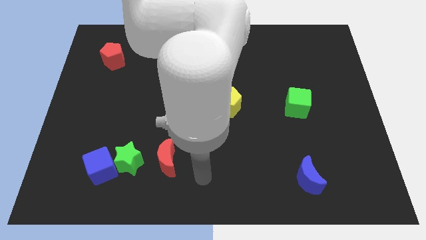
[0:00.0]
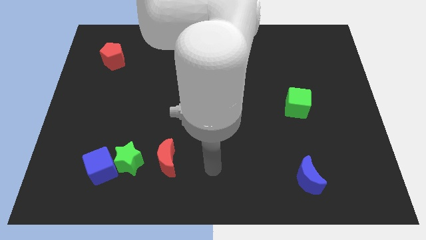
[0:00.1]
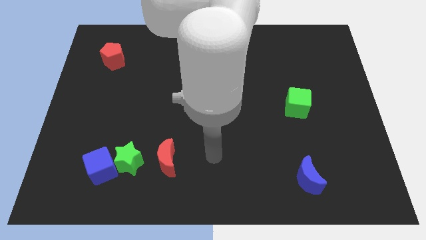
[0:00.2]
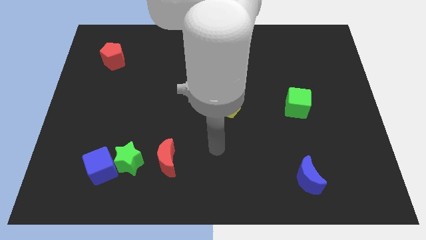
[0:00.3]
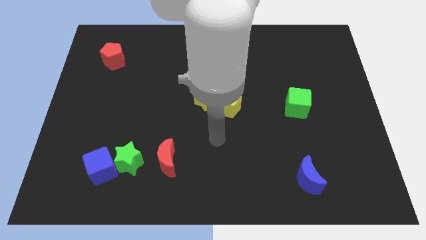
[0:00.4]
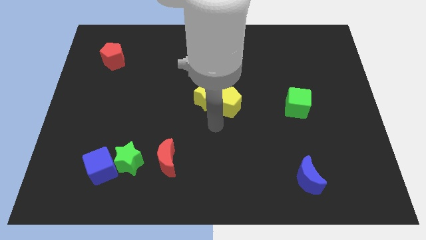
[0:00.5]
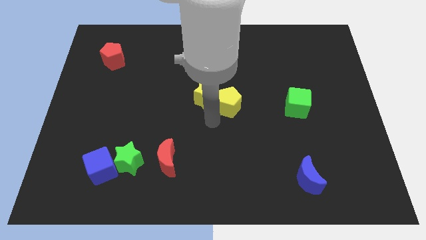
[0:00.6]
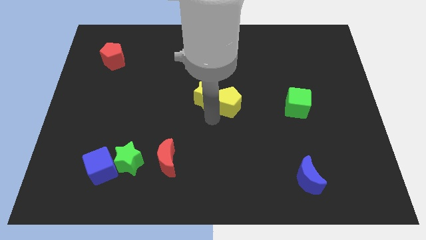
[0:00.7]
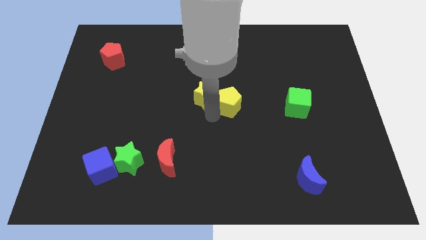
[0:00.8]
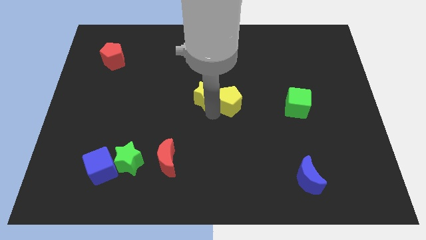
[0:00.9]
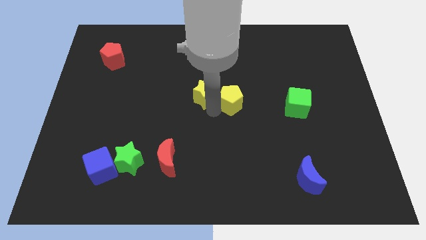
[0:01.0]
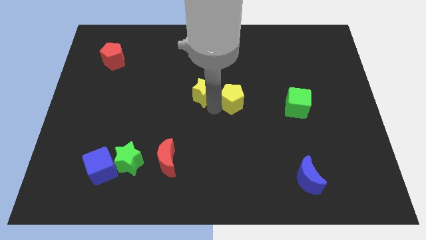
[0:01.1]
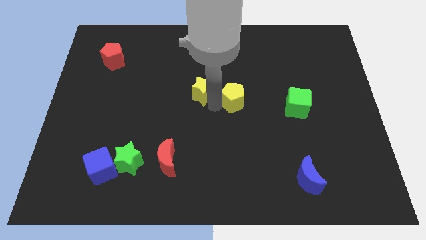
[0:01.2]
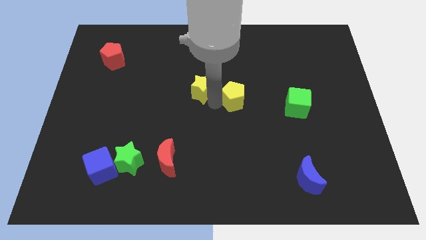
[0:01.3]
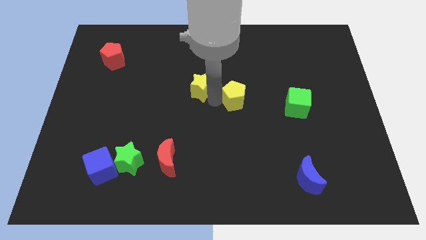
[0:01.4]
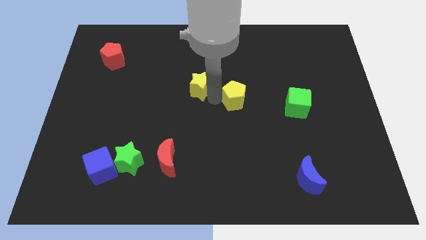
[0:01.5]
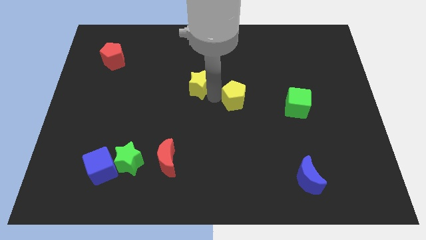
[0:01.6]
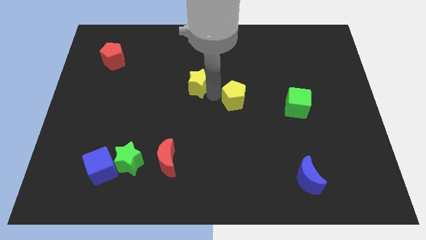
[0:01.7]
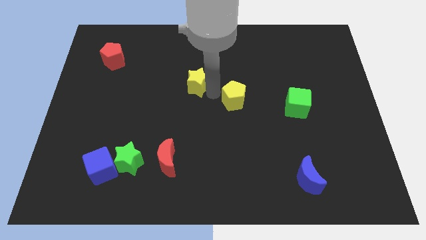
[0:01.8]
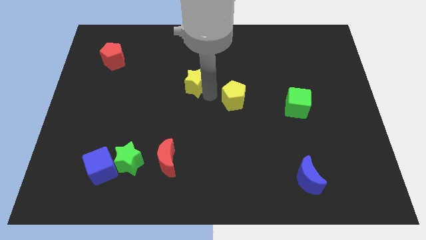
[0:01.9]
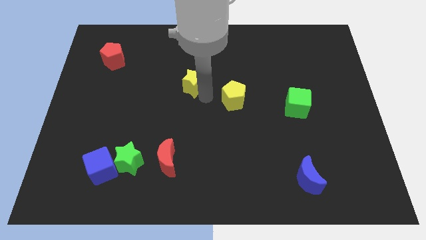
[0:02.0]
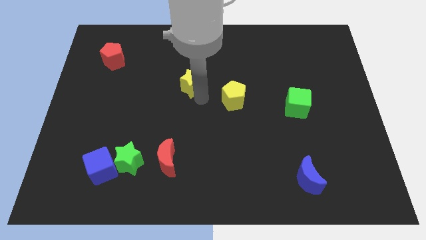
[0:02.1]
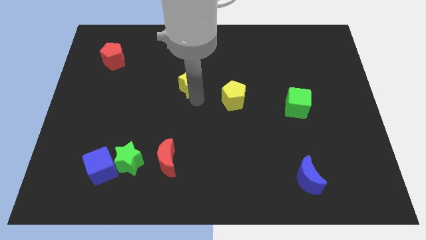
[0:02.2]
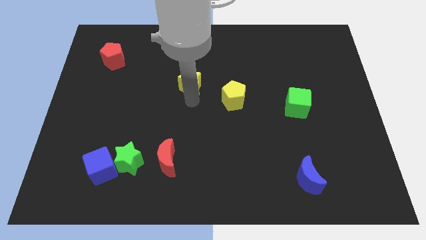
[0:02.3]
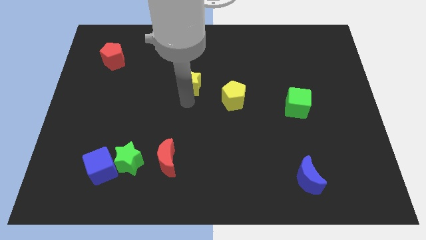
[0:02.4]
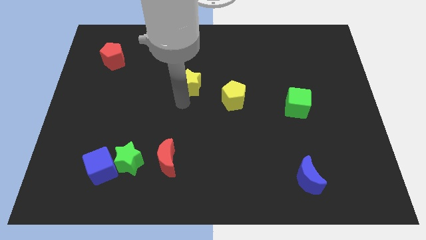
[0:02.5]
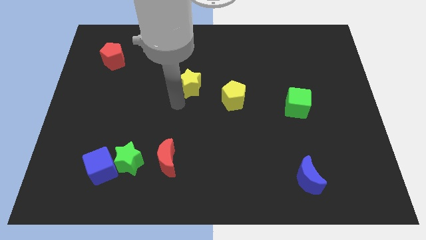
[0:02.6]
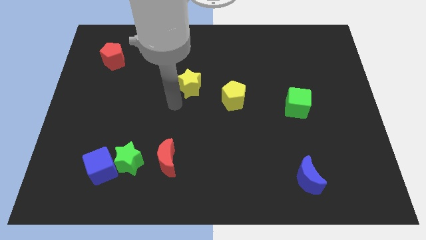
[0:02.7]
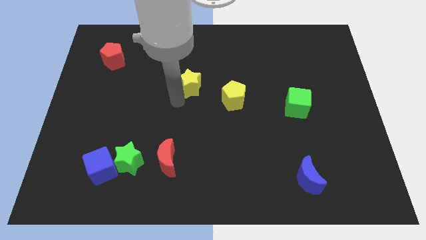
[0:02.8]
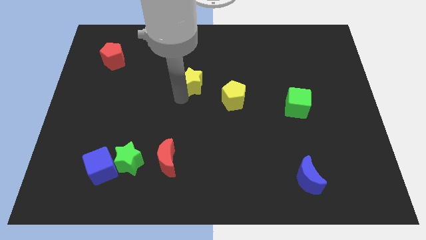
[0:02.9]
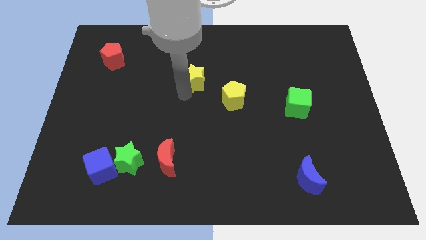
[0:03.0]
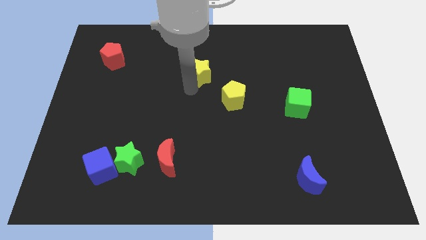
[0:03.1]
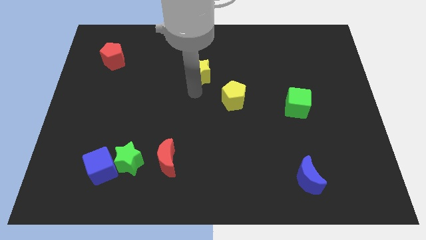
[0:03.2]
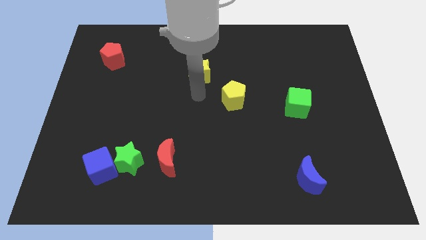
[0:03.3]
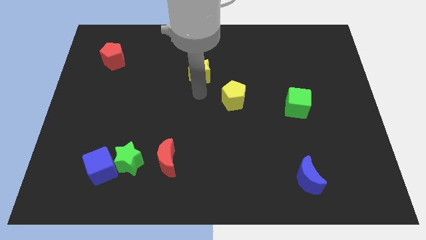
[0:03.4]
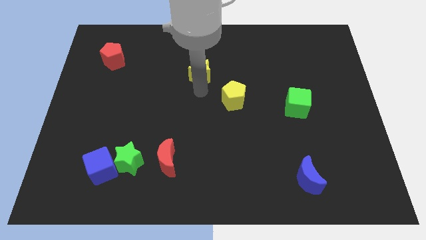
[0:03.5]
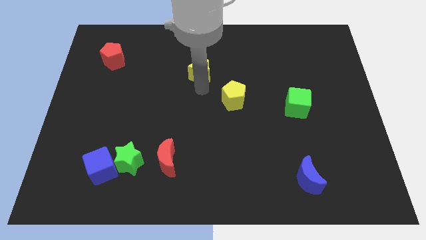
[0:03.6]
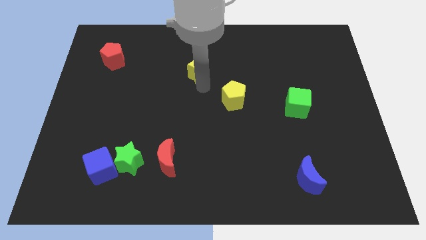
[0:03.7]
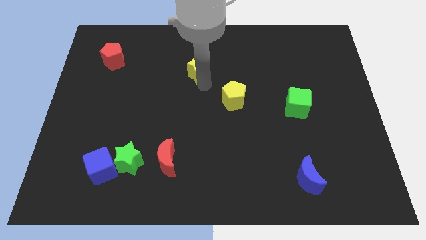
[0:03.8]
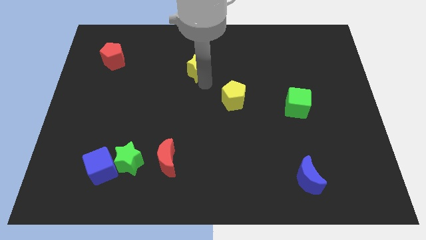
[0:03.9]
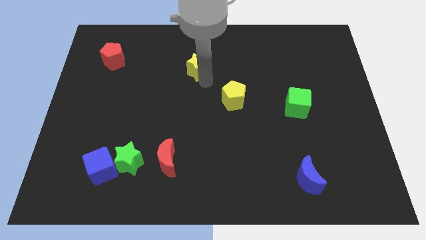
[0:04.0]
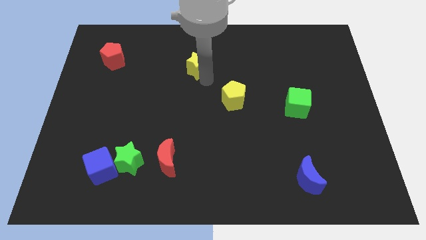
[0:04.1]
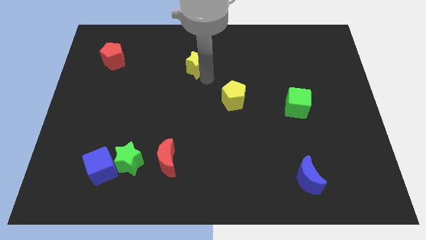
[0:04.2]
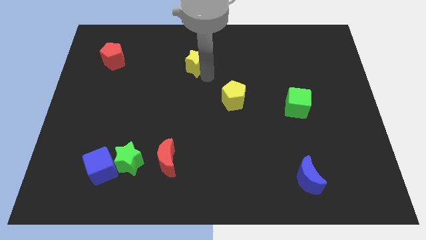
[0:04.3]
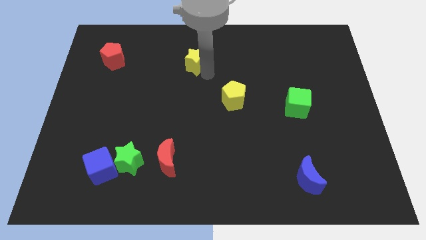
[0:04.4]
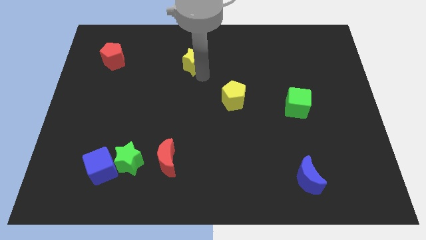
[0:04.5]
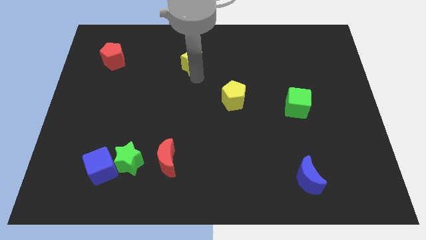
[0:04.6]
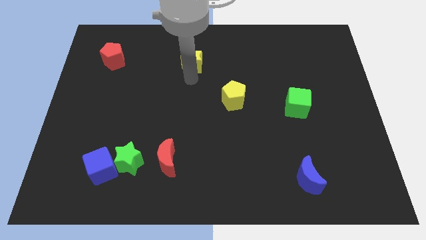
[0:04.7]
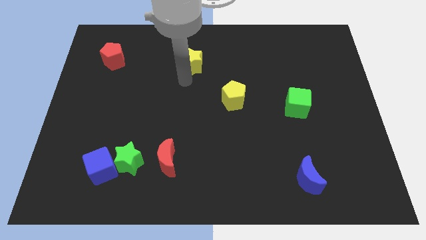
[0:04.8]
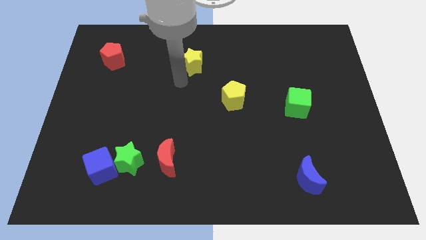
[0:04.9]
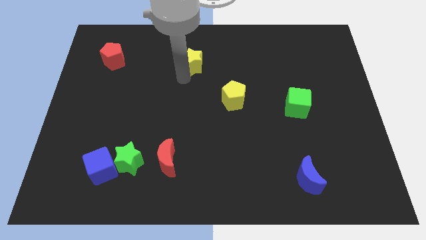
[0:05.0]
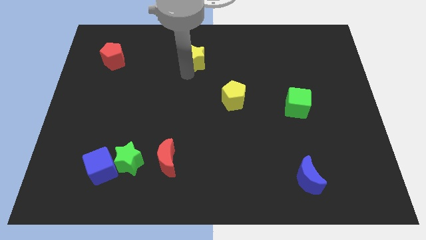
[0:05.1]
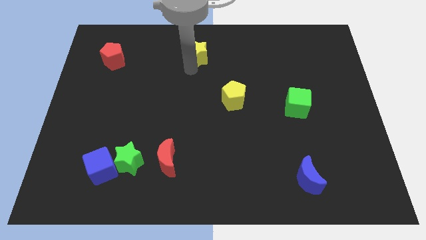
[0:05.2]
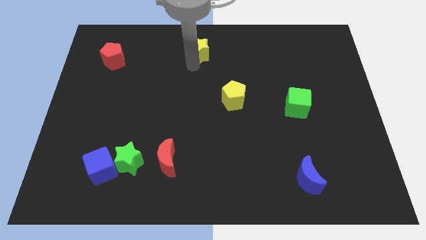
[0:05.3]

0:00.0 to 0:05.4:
push the yellow star to the top
